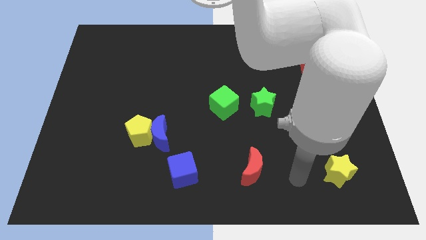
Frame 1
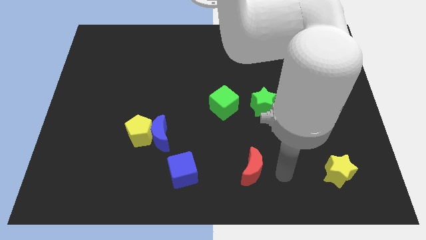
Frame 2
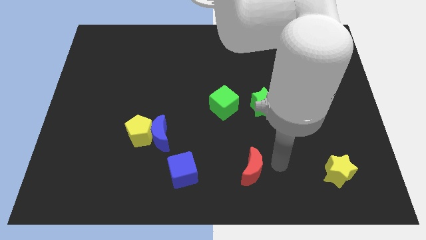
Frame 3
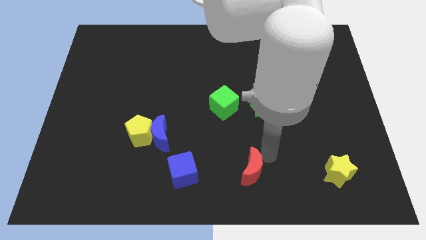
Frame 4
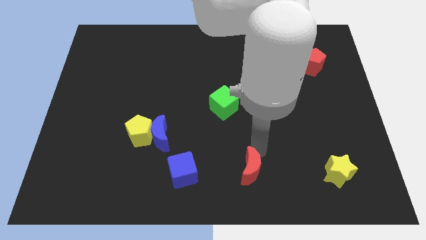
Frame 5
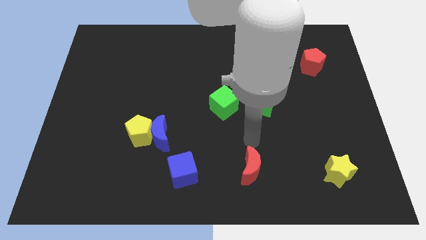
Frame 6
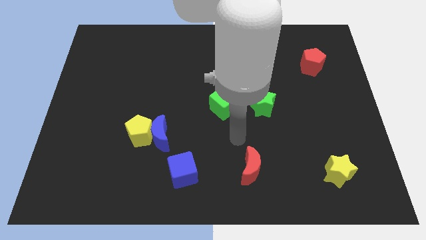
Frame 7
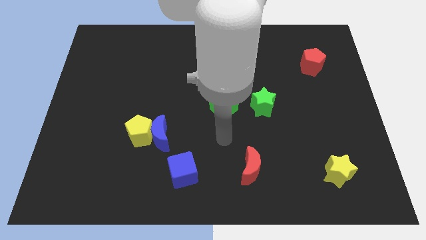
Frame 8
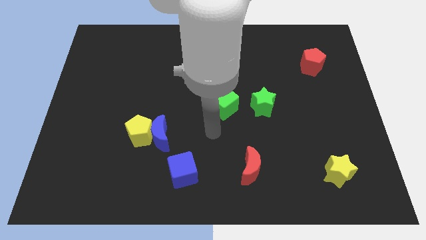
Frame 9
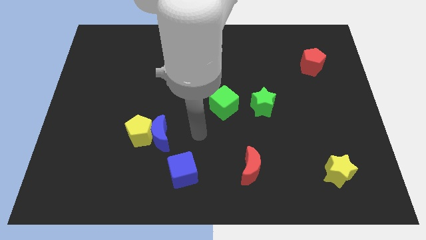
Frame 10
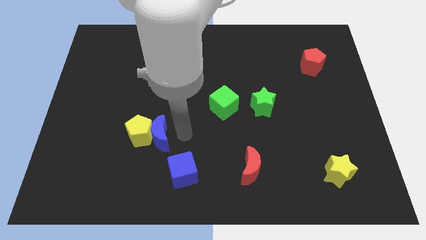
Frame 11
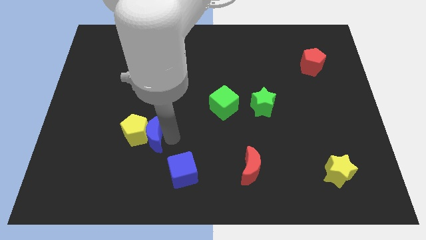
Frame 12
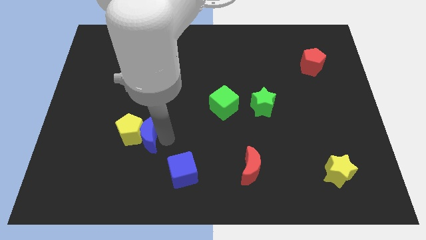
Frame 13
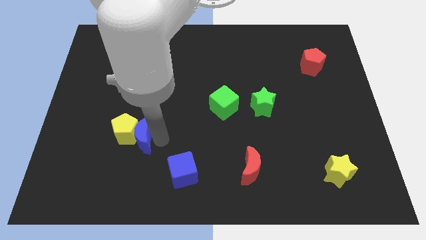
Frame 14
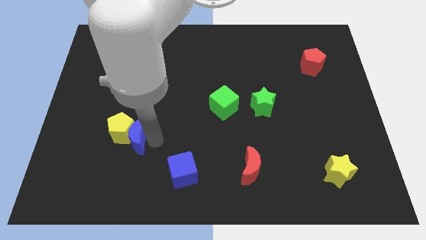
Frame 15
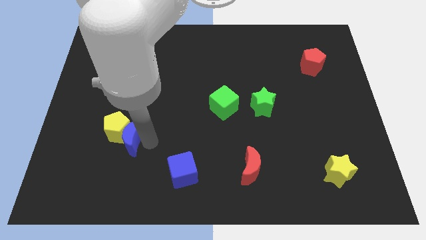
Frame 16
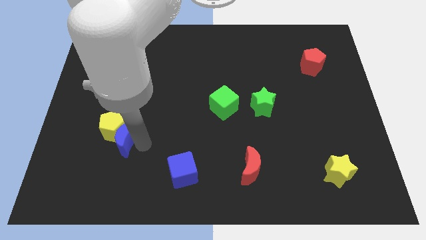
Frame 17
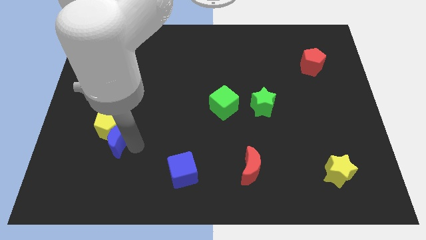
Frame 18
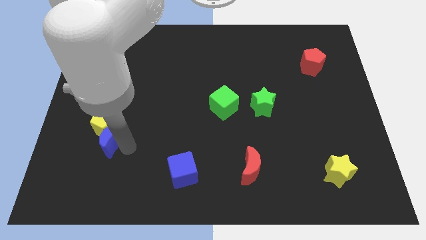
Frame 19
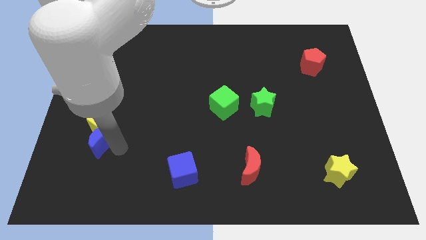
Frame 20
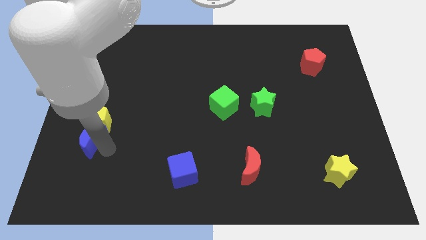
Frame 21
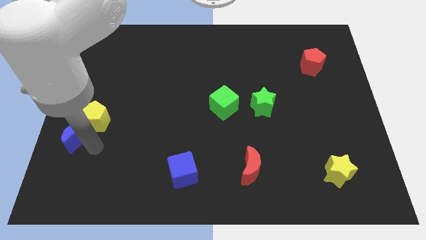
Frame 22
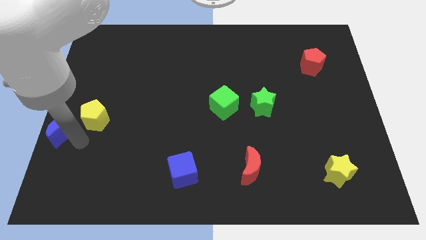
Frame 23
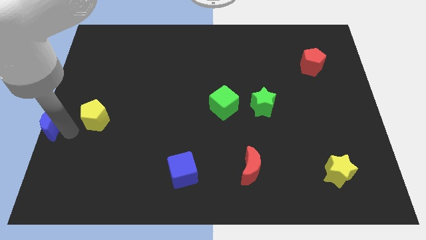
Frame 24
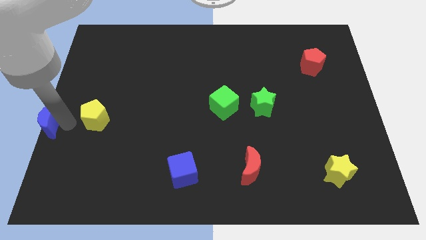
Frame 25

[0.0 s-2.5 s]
move the yellow pentagon away from the blue moon

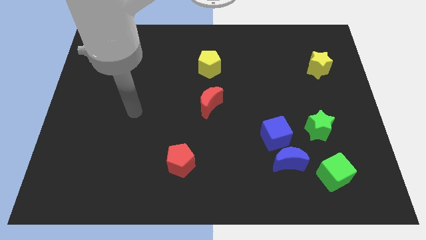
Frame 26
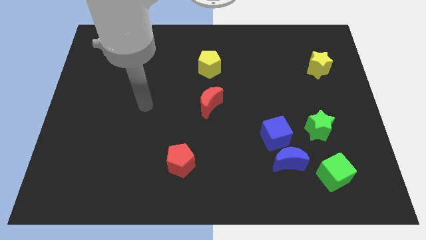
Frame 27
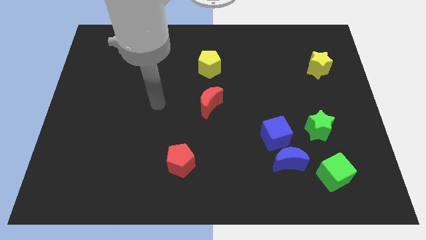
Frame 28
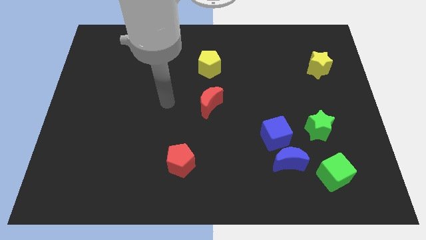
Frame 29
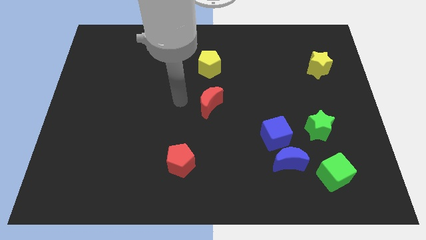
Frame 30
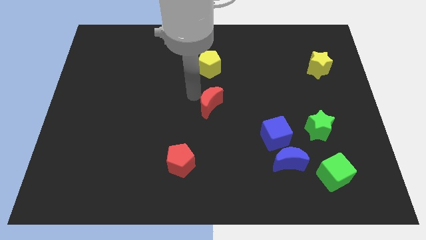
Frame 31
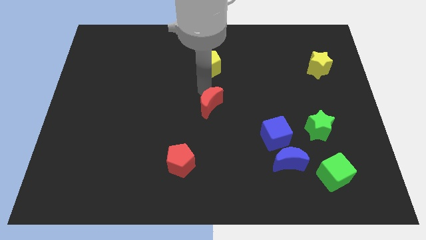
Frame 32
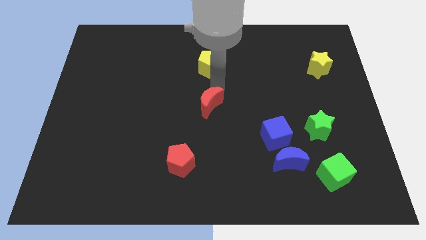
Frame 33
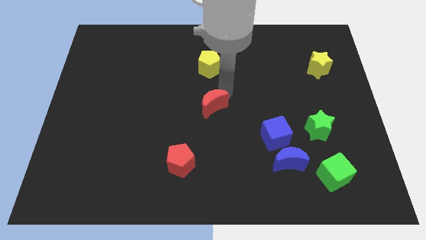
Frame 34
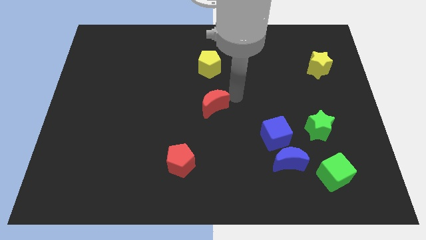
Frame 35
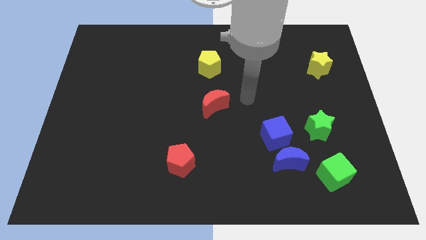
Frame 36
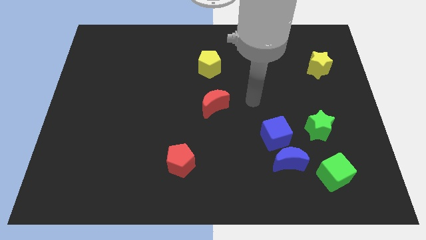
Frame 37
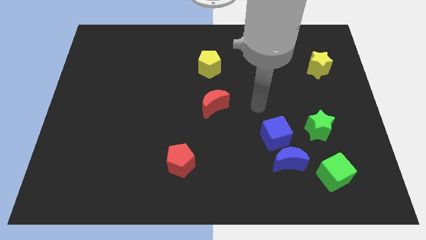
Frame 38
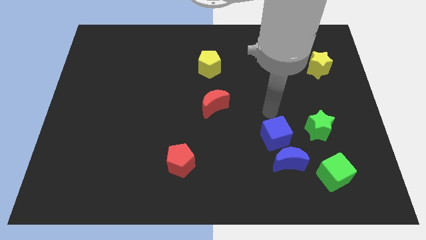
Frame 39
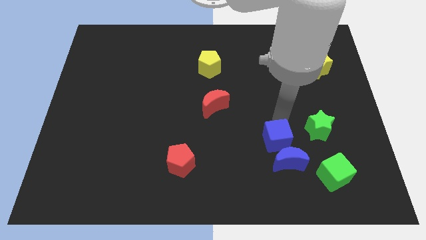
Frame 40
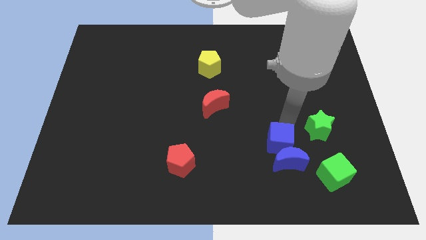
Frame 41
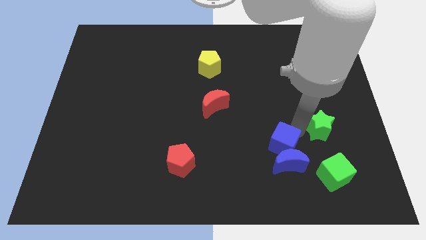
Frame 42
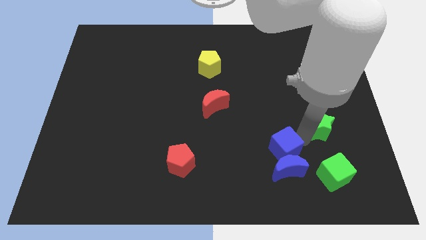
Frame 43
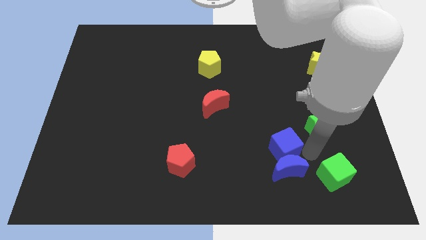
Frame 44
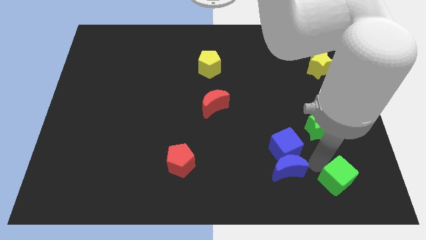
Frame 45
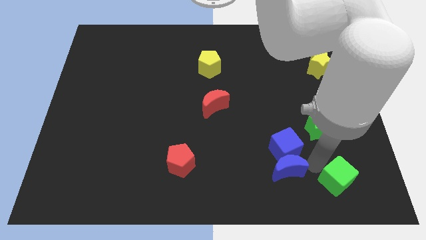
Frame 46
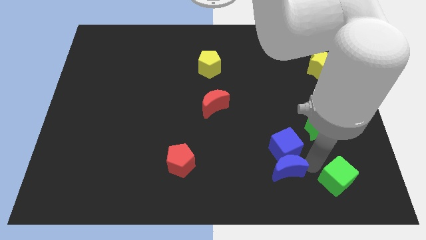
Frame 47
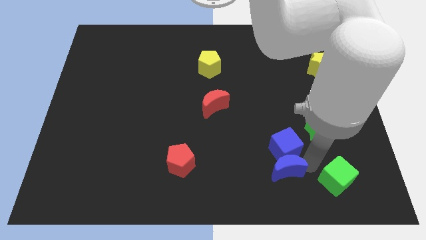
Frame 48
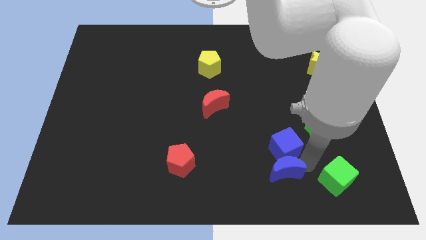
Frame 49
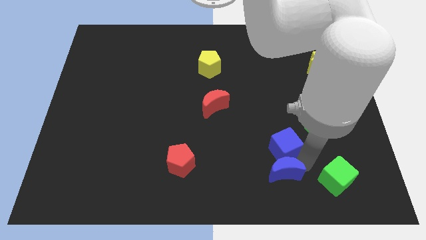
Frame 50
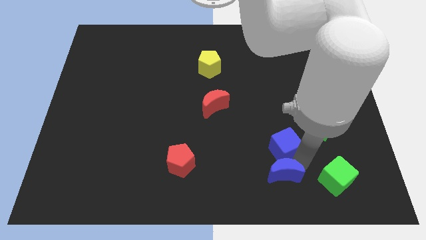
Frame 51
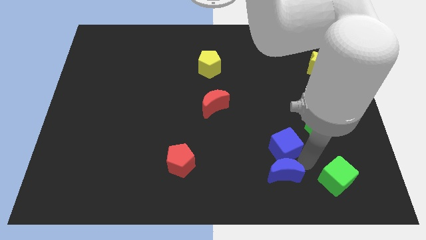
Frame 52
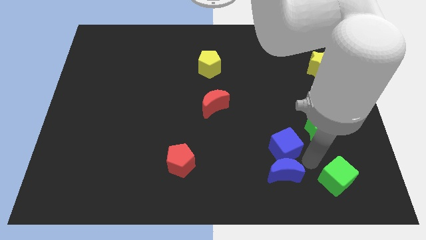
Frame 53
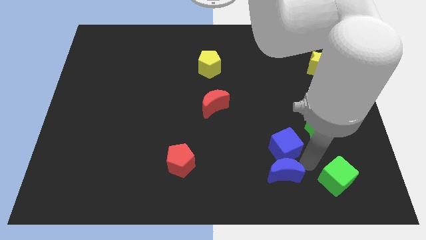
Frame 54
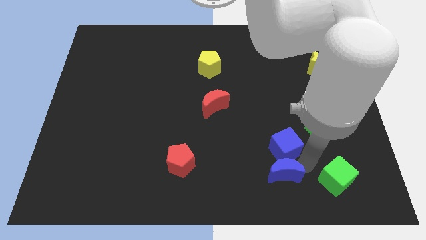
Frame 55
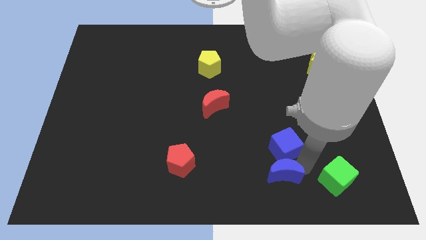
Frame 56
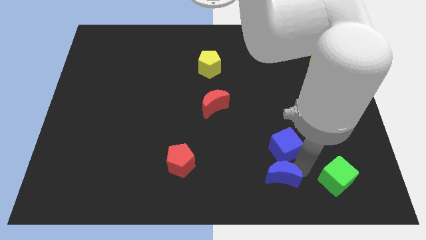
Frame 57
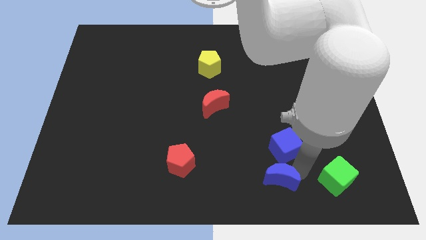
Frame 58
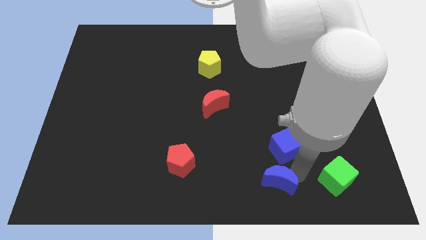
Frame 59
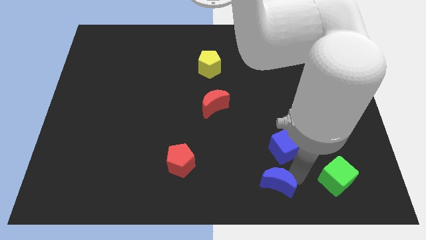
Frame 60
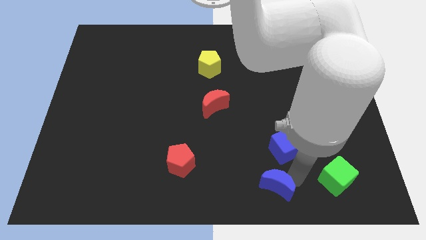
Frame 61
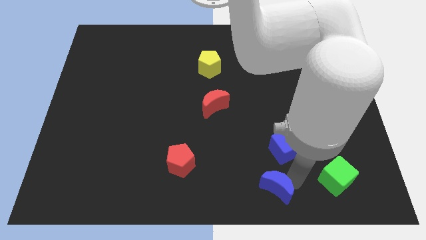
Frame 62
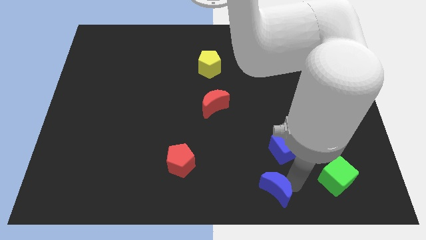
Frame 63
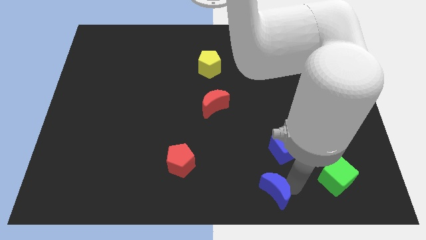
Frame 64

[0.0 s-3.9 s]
pull the blue moon apart from the blue cube and green cube

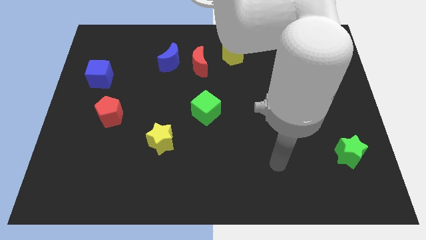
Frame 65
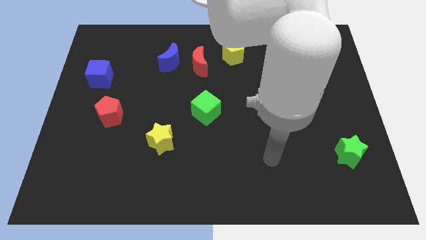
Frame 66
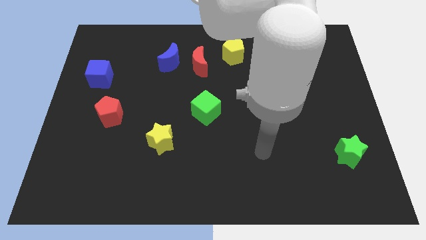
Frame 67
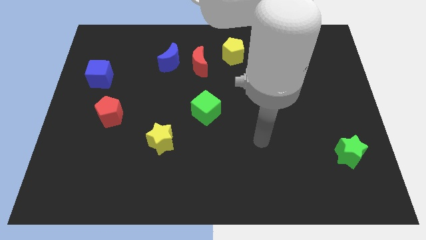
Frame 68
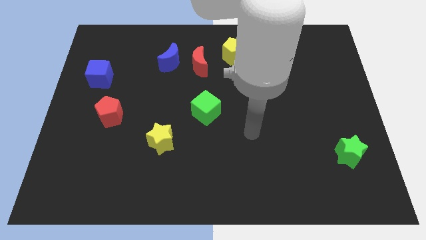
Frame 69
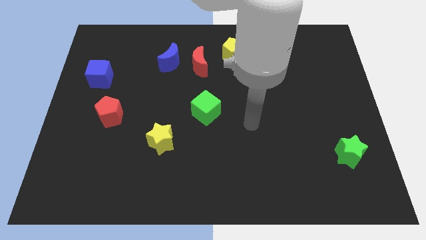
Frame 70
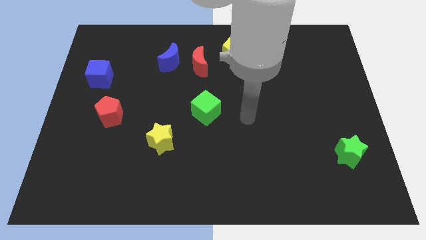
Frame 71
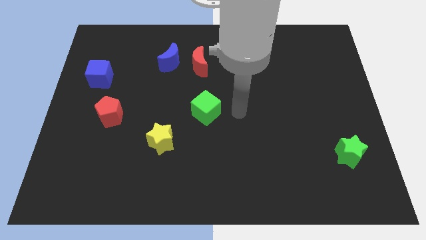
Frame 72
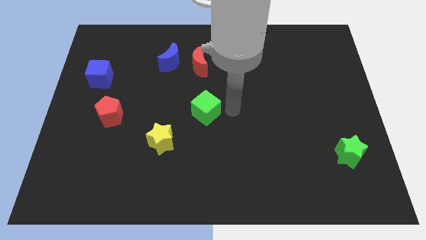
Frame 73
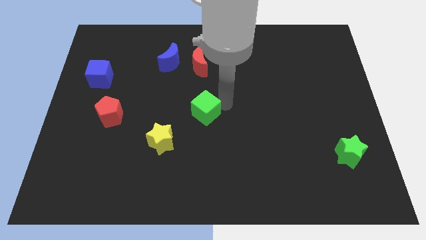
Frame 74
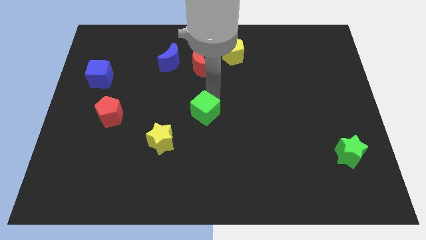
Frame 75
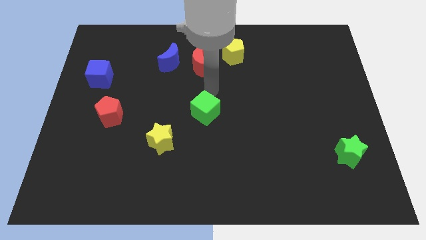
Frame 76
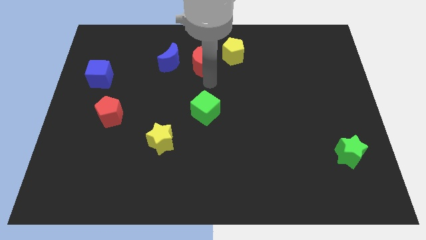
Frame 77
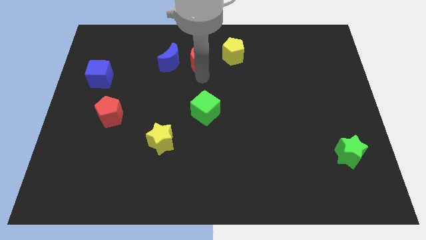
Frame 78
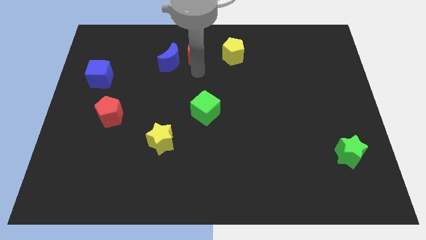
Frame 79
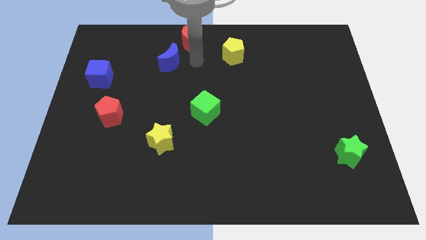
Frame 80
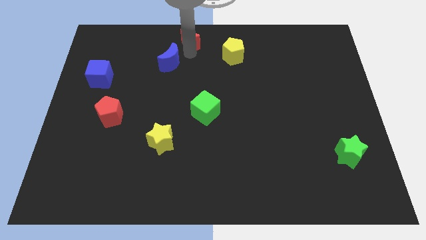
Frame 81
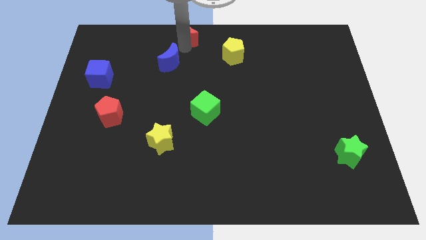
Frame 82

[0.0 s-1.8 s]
move the blue moon away from the red moon

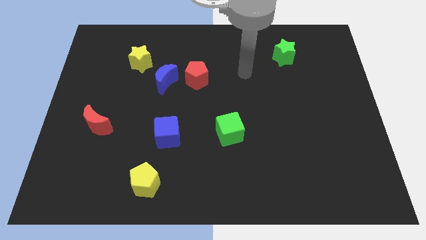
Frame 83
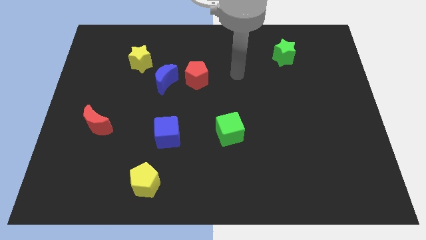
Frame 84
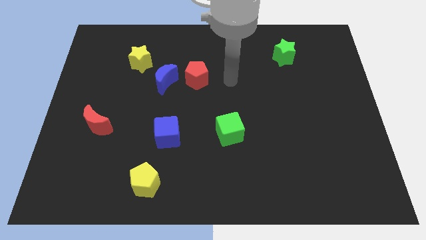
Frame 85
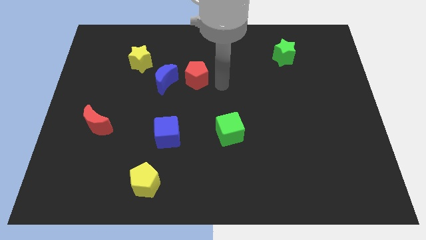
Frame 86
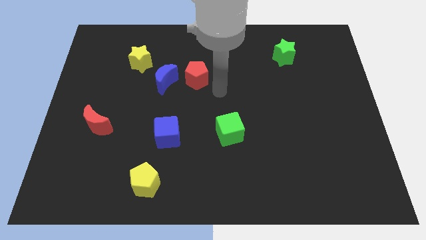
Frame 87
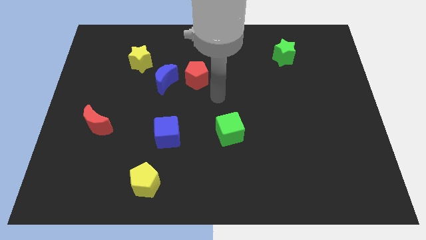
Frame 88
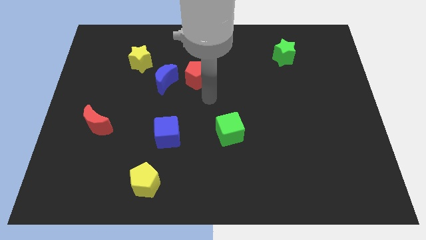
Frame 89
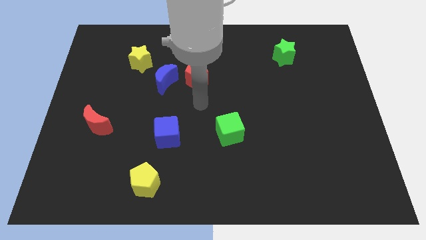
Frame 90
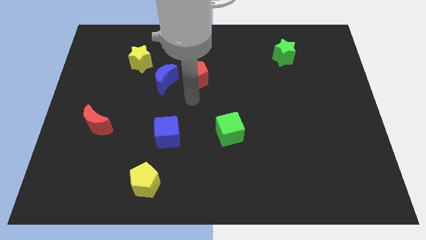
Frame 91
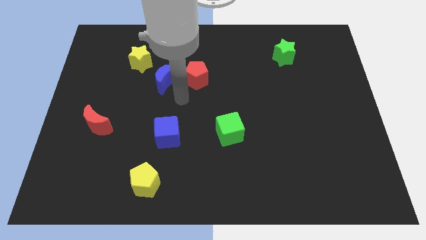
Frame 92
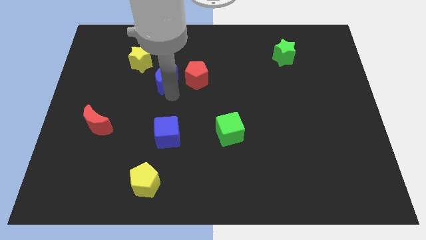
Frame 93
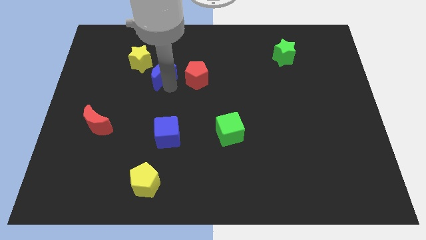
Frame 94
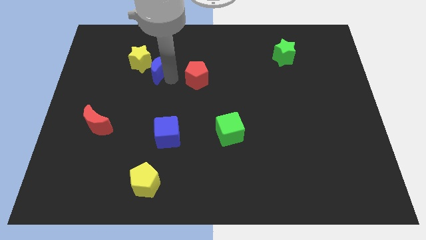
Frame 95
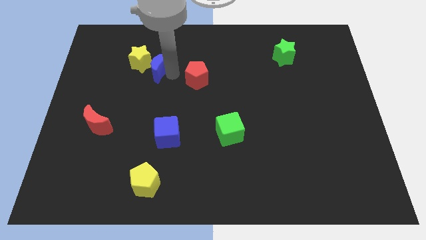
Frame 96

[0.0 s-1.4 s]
move the red pentagon away from the blue moon
